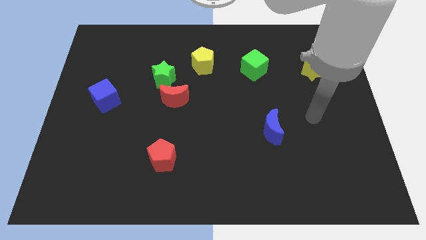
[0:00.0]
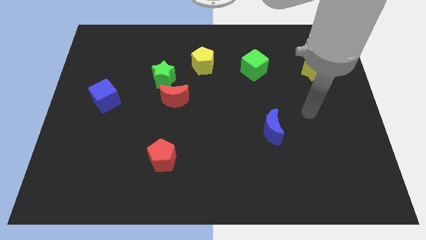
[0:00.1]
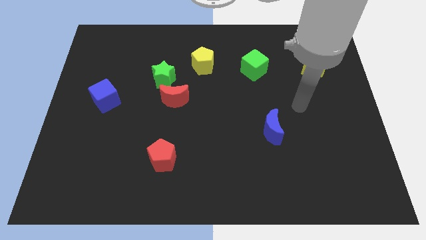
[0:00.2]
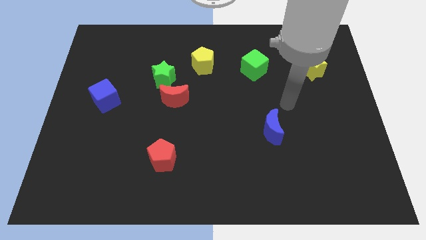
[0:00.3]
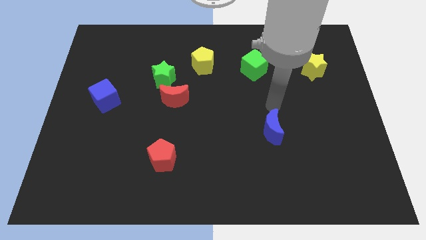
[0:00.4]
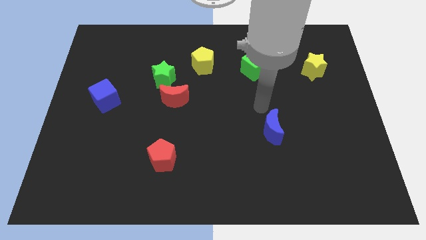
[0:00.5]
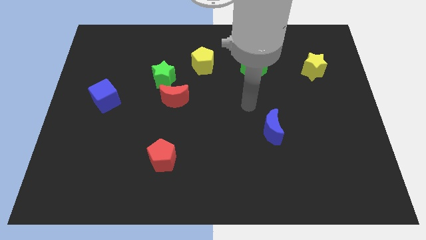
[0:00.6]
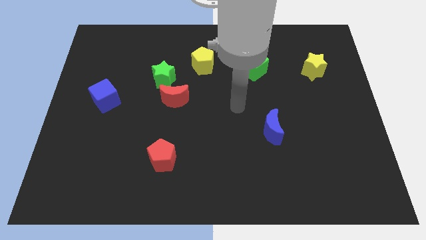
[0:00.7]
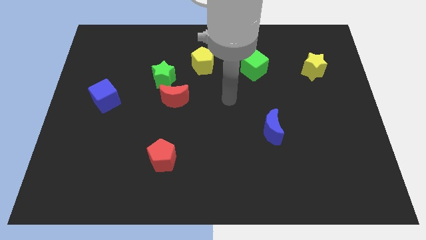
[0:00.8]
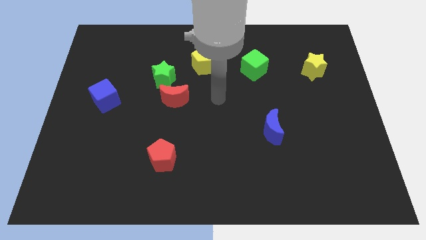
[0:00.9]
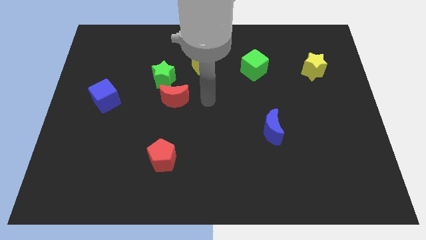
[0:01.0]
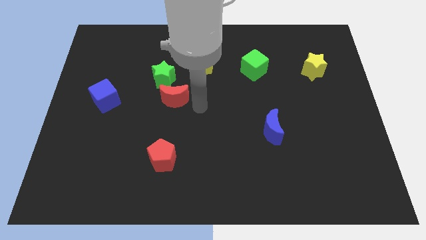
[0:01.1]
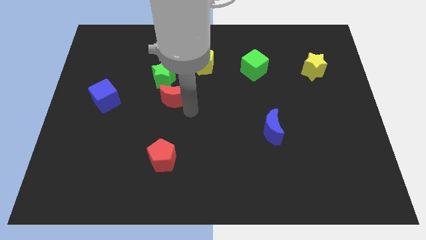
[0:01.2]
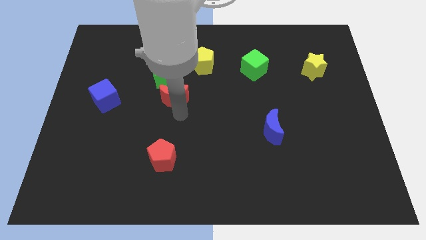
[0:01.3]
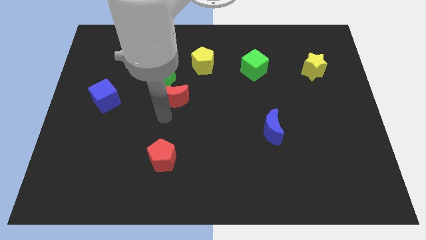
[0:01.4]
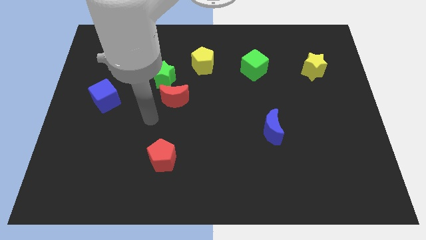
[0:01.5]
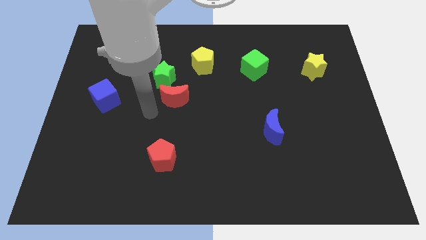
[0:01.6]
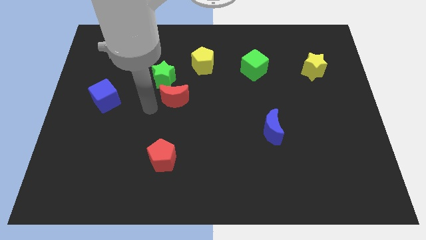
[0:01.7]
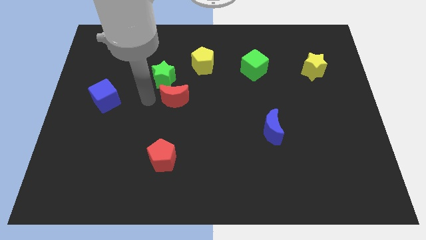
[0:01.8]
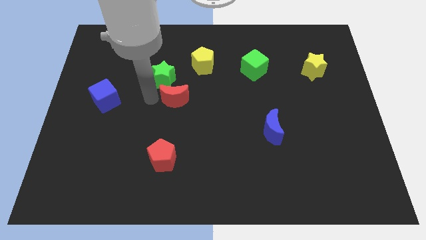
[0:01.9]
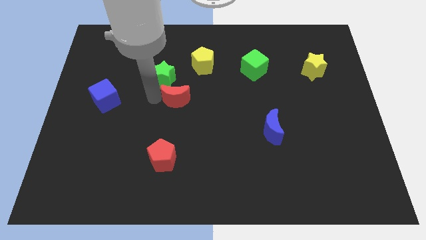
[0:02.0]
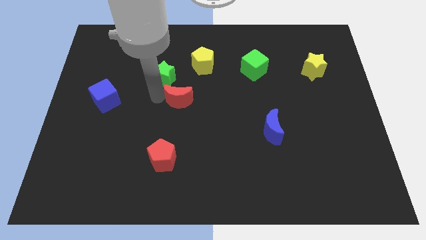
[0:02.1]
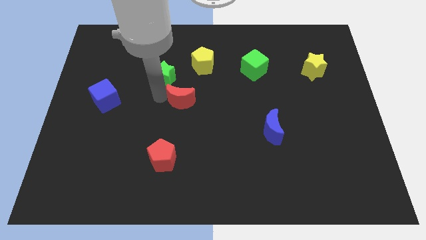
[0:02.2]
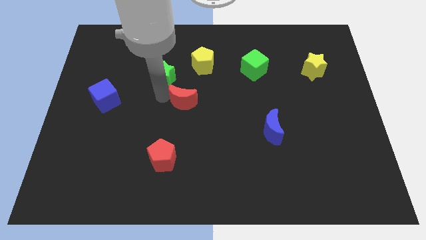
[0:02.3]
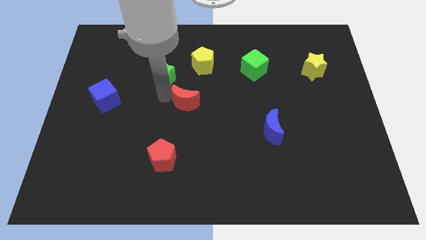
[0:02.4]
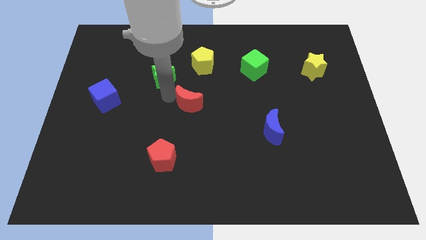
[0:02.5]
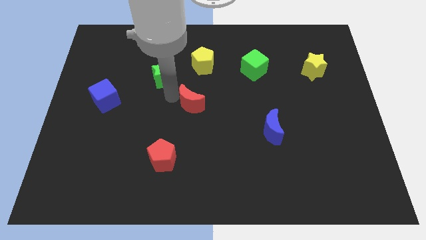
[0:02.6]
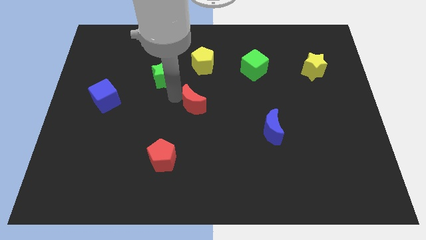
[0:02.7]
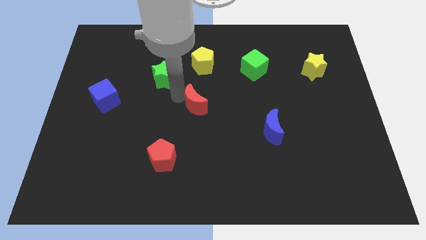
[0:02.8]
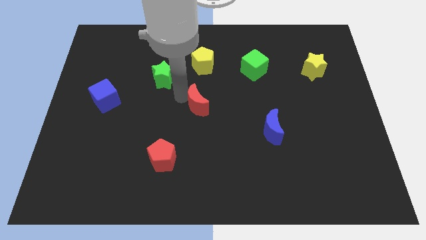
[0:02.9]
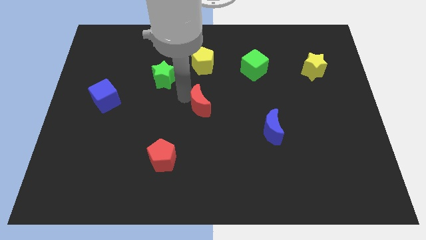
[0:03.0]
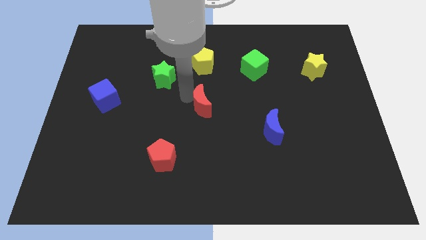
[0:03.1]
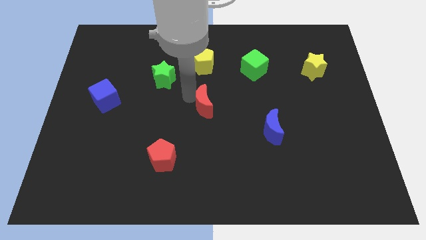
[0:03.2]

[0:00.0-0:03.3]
slightly push the red moon to the right

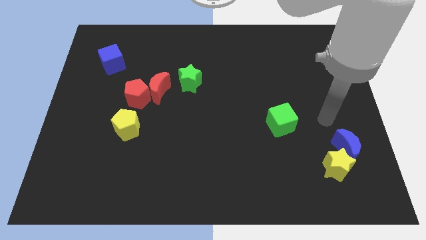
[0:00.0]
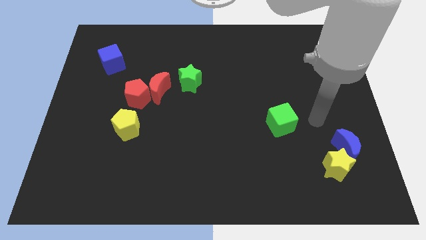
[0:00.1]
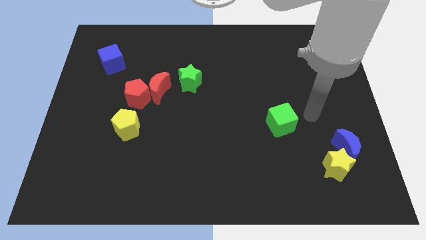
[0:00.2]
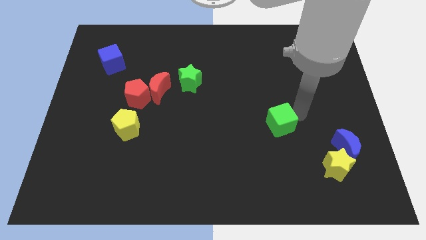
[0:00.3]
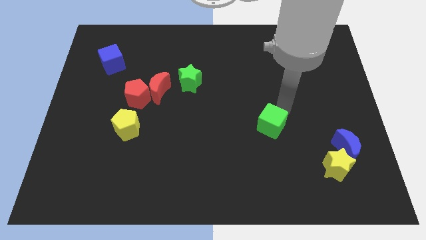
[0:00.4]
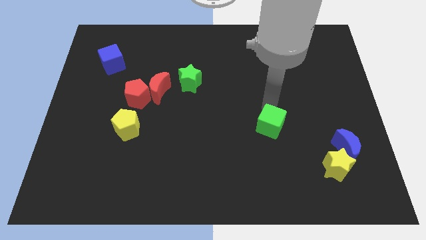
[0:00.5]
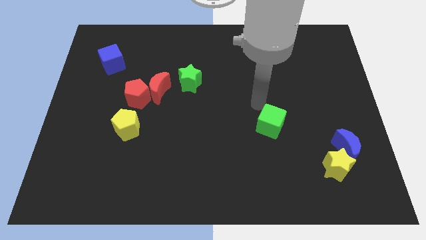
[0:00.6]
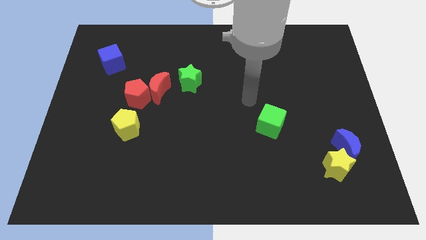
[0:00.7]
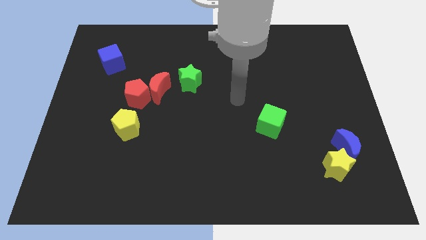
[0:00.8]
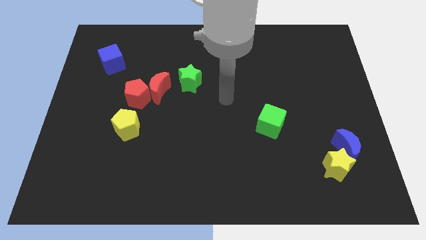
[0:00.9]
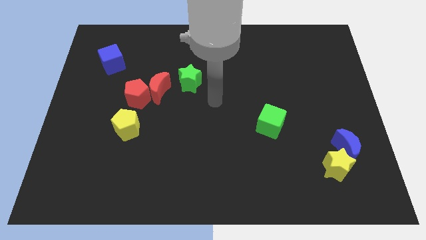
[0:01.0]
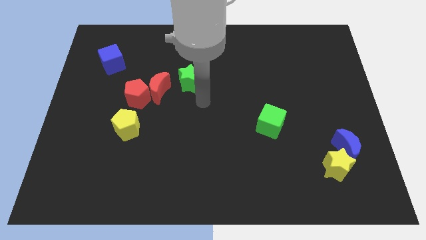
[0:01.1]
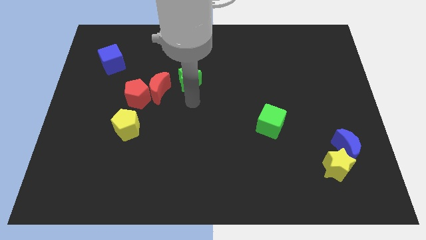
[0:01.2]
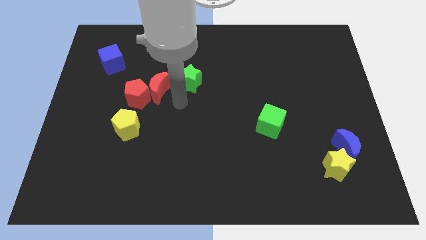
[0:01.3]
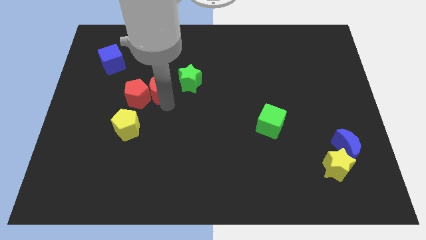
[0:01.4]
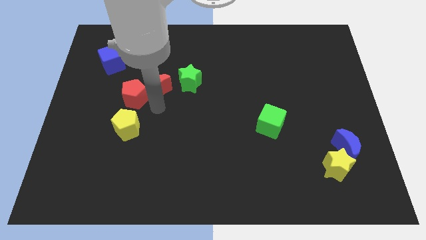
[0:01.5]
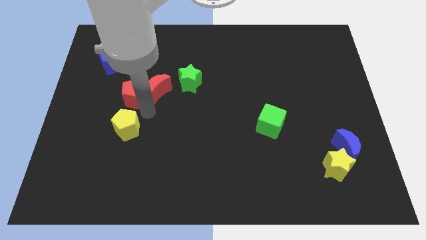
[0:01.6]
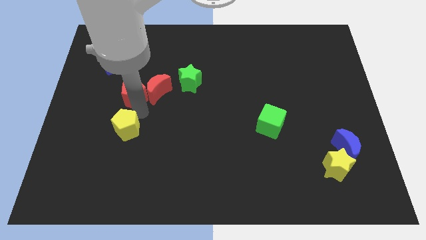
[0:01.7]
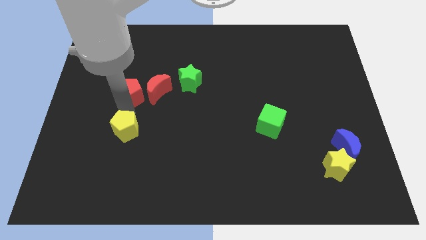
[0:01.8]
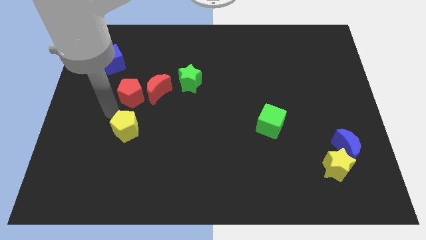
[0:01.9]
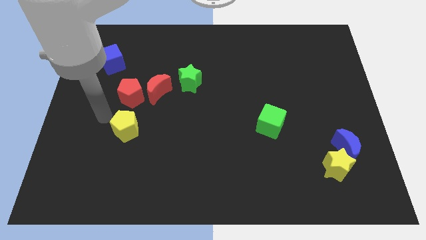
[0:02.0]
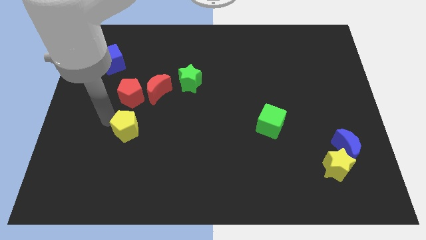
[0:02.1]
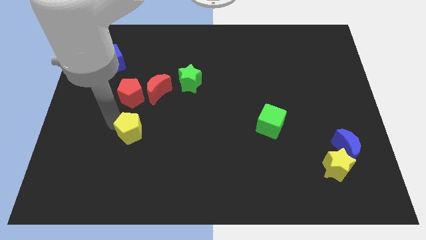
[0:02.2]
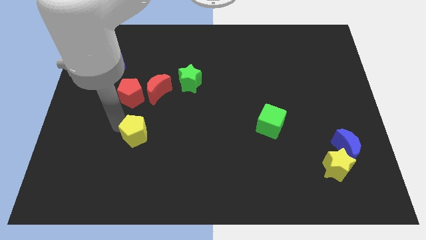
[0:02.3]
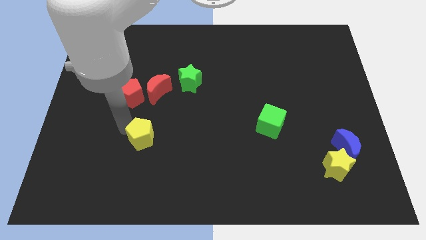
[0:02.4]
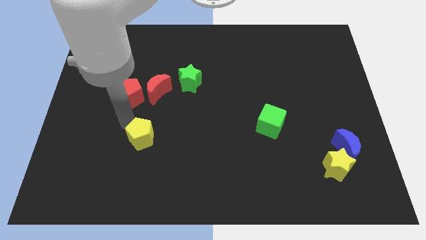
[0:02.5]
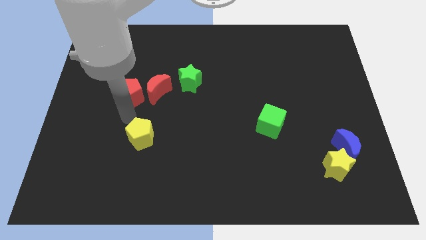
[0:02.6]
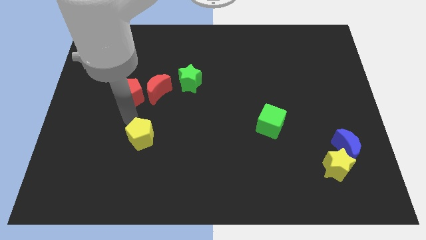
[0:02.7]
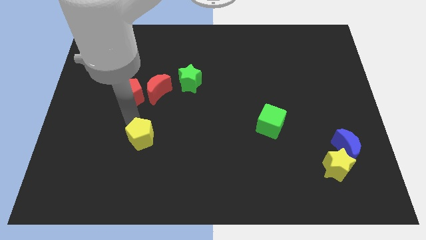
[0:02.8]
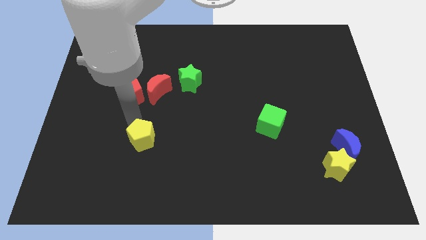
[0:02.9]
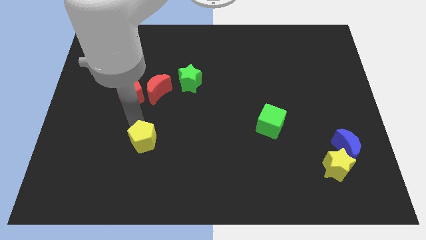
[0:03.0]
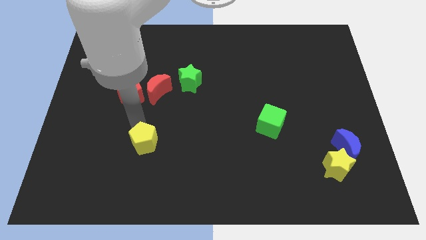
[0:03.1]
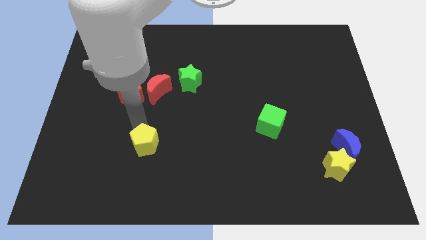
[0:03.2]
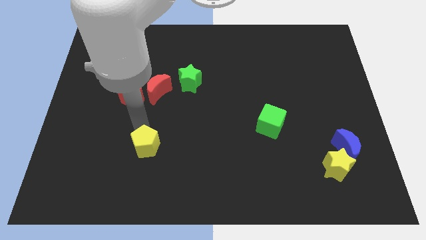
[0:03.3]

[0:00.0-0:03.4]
slightly move the yellow pentagon diagonally down and to the right

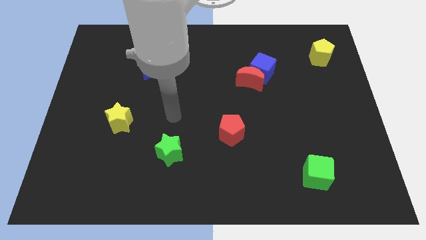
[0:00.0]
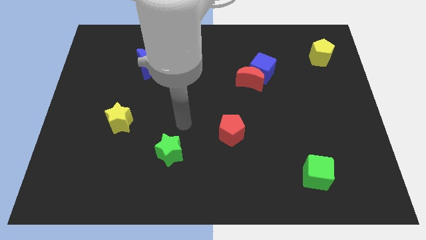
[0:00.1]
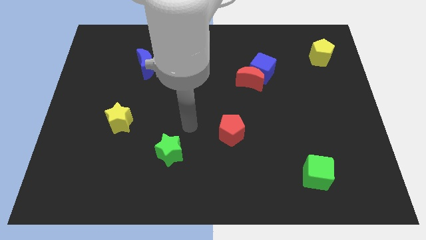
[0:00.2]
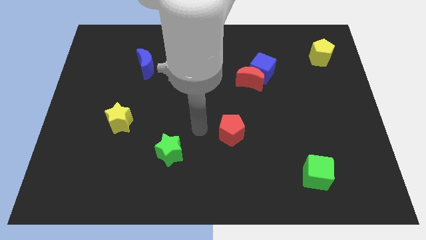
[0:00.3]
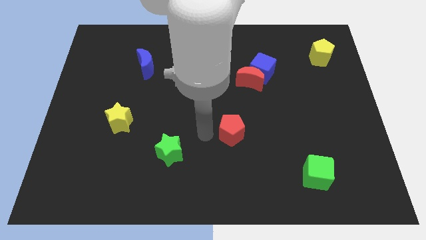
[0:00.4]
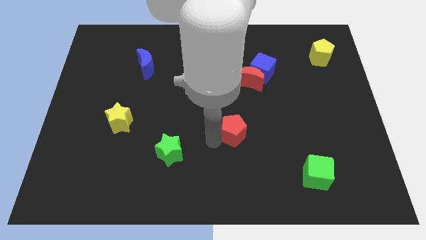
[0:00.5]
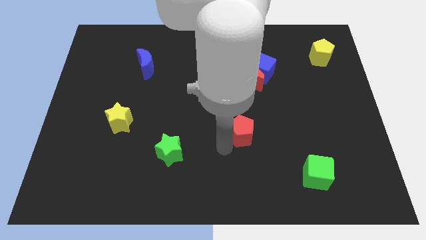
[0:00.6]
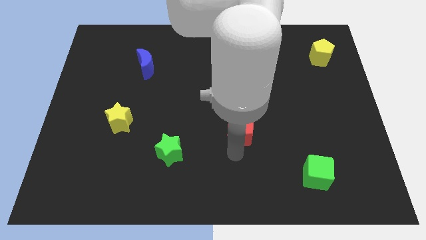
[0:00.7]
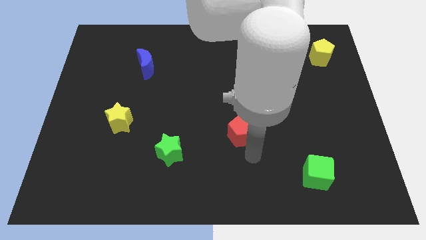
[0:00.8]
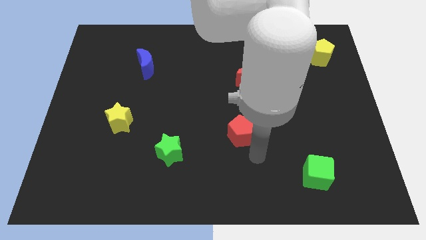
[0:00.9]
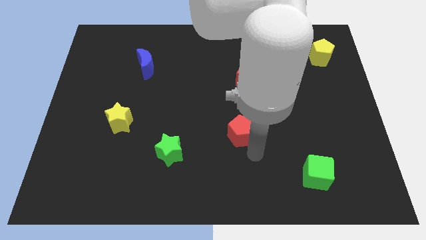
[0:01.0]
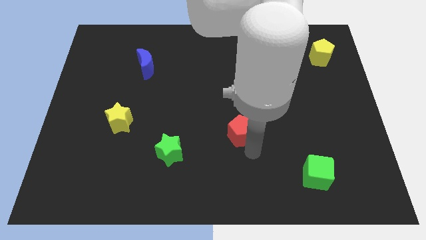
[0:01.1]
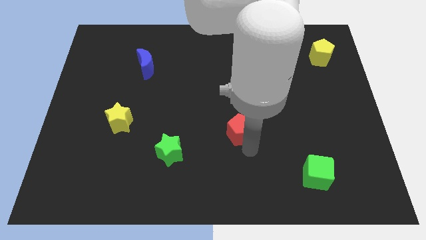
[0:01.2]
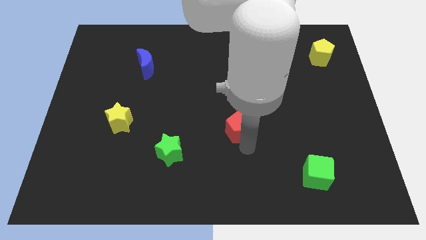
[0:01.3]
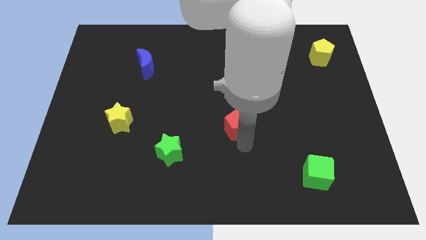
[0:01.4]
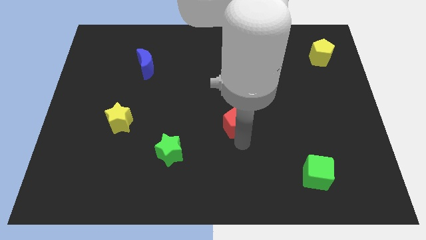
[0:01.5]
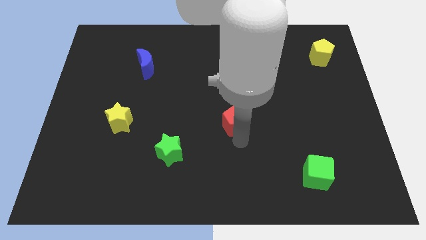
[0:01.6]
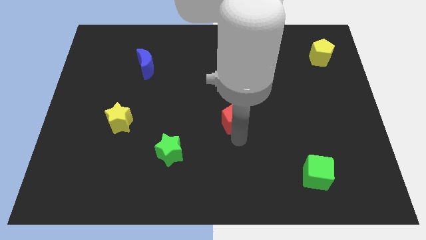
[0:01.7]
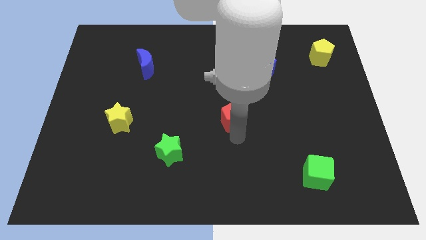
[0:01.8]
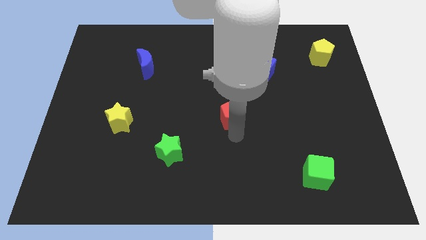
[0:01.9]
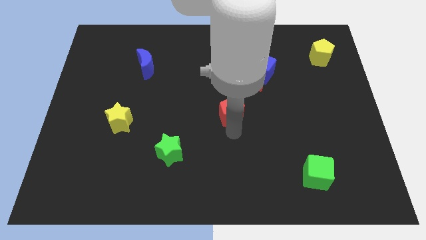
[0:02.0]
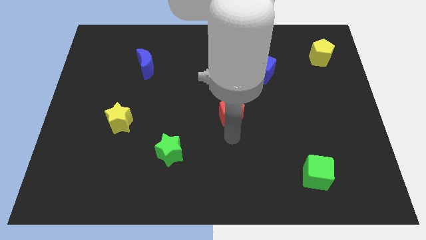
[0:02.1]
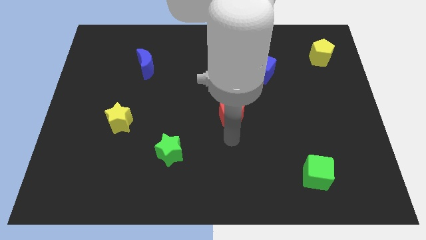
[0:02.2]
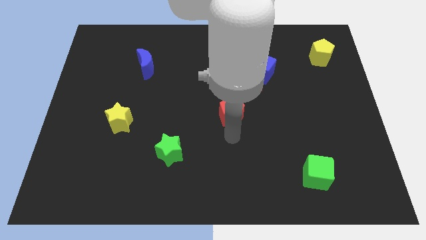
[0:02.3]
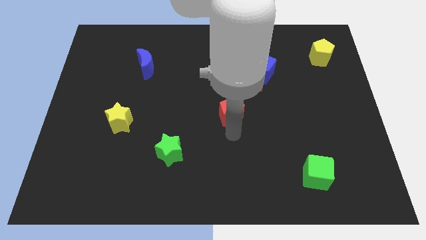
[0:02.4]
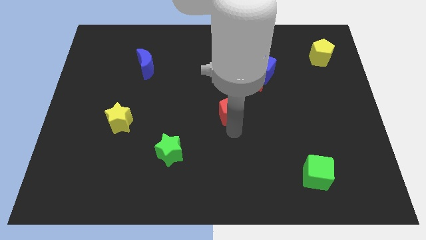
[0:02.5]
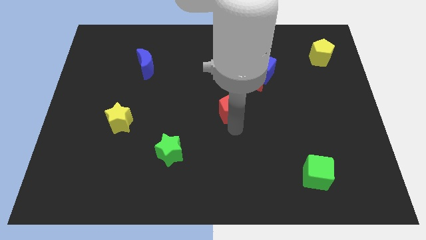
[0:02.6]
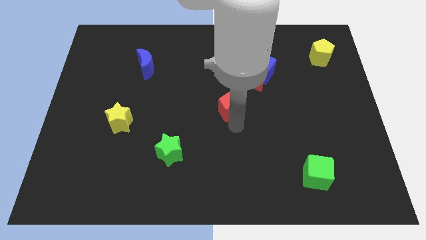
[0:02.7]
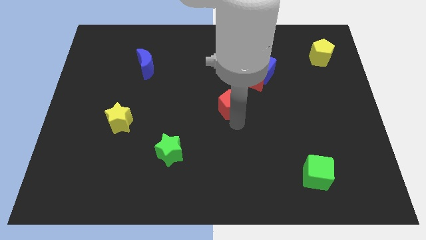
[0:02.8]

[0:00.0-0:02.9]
slightly move the red pentagon up
